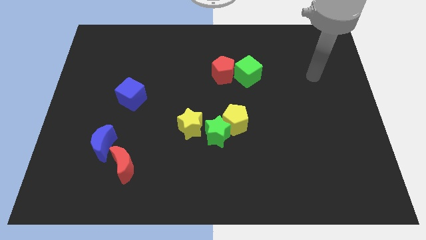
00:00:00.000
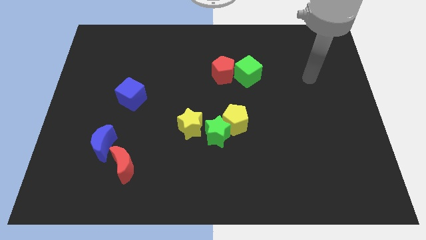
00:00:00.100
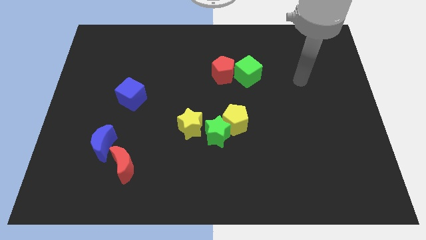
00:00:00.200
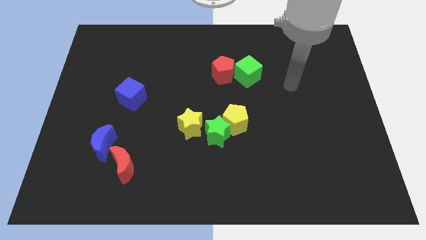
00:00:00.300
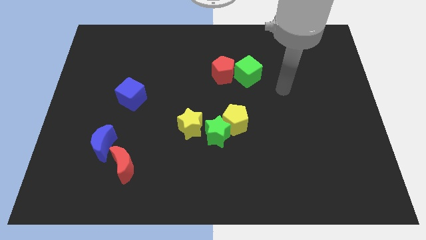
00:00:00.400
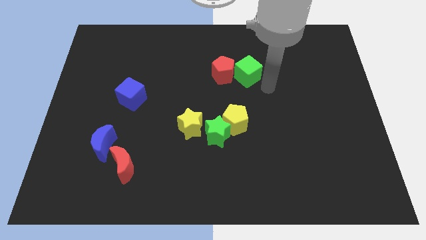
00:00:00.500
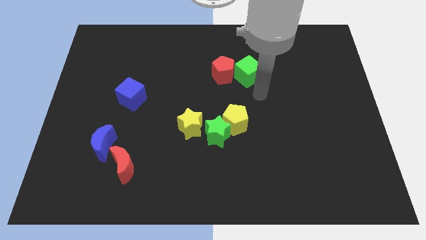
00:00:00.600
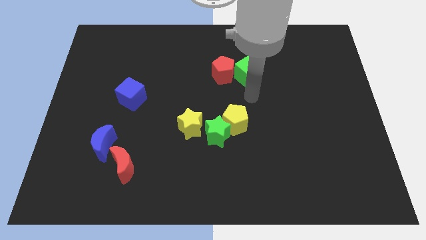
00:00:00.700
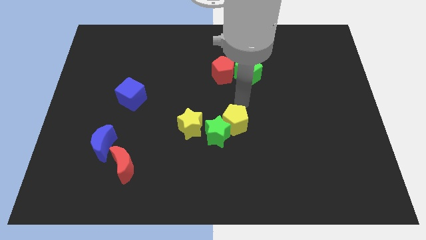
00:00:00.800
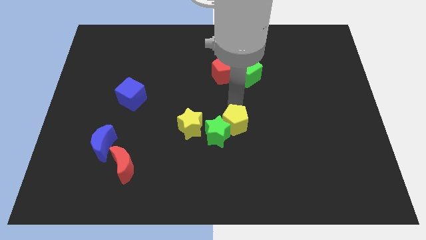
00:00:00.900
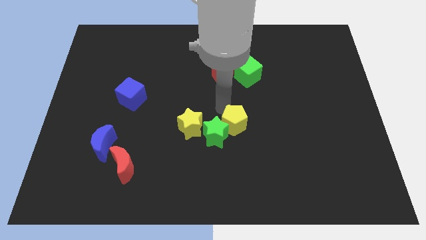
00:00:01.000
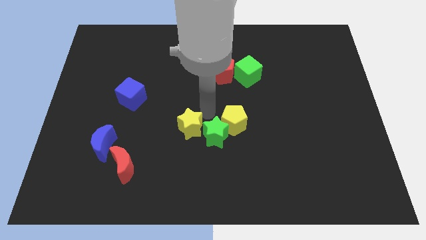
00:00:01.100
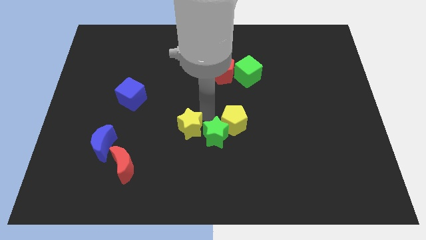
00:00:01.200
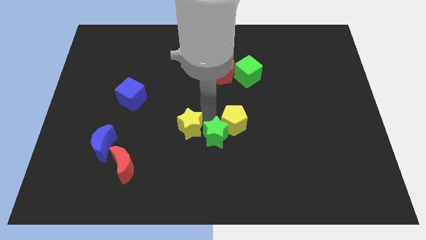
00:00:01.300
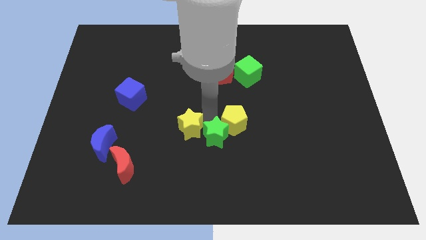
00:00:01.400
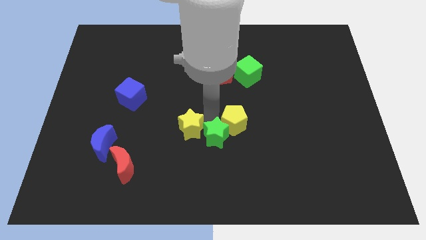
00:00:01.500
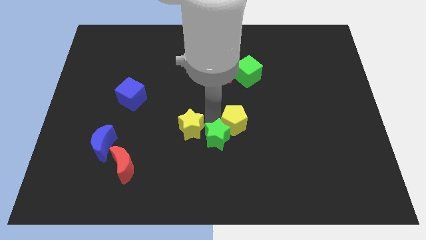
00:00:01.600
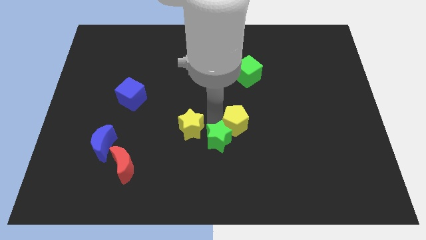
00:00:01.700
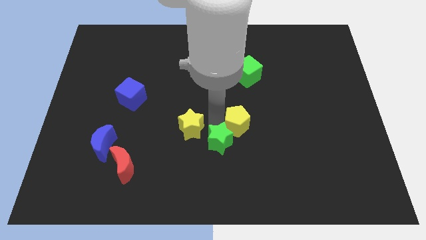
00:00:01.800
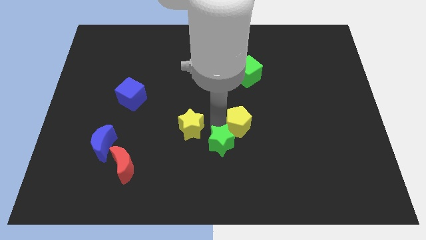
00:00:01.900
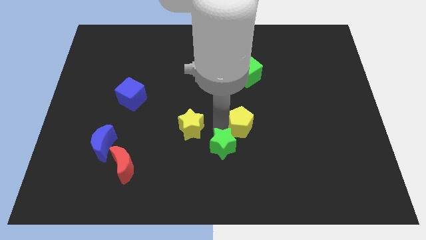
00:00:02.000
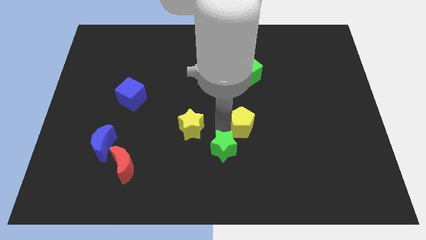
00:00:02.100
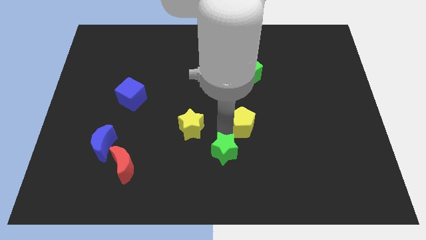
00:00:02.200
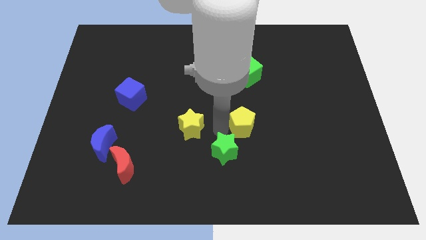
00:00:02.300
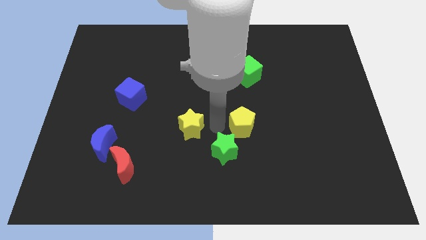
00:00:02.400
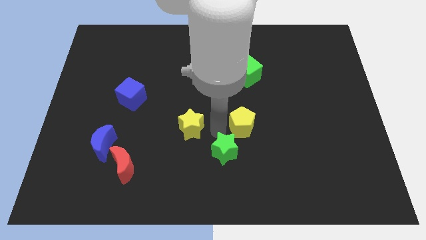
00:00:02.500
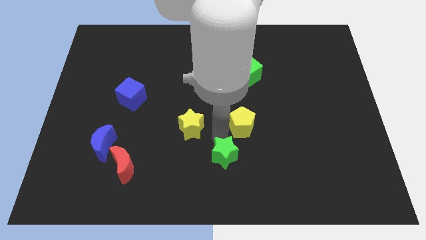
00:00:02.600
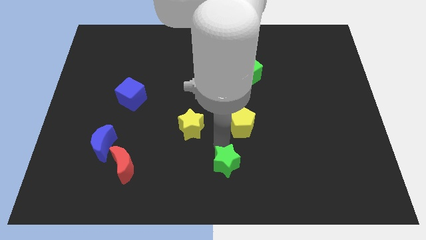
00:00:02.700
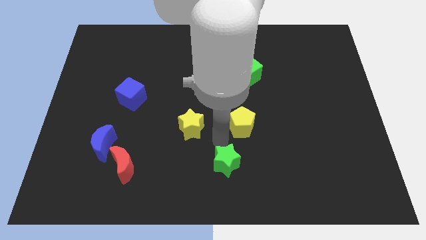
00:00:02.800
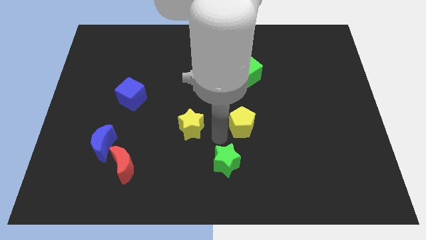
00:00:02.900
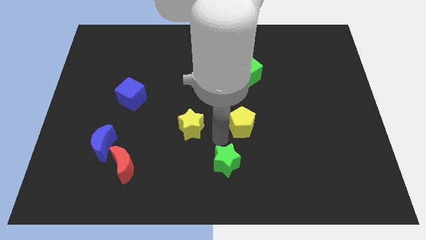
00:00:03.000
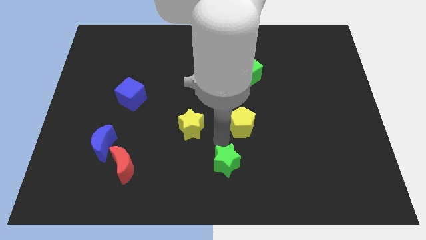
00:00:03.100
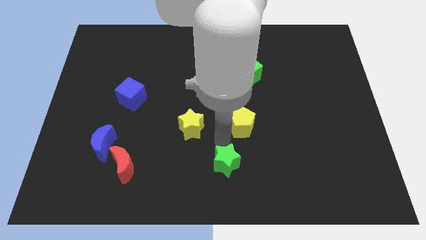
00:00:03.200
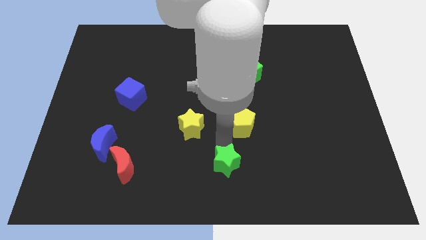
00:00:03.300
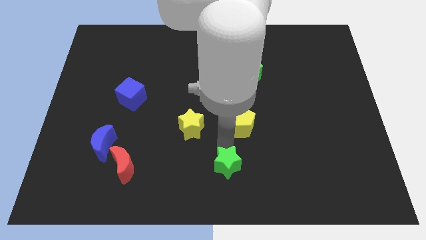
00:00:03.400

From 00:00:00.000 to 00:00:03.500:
pull the green star apart from the yellow pentagon and yellow star

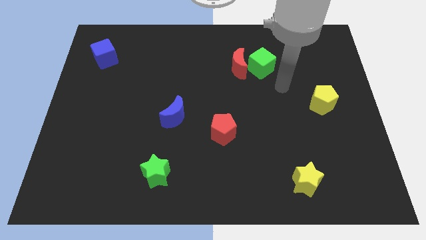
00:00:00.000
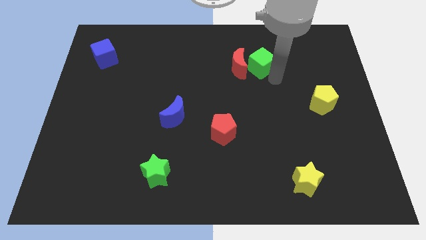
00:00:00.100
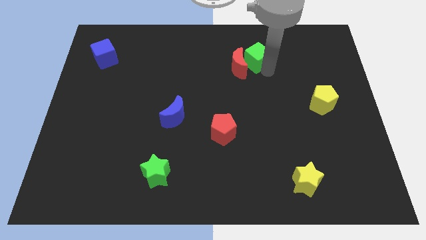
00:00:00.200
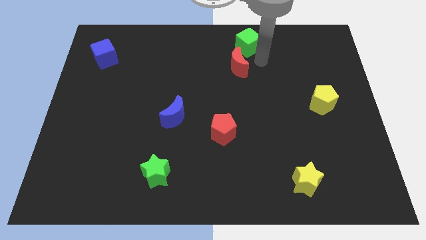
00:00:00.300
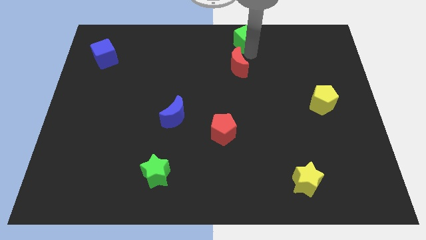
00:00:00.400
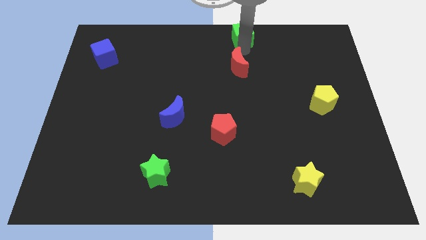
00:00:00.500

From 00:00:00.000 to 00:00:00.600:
move the red moon away from the green cube

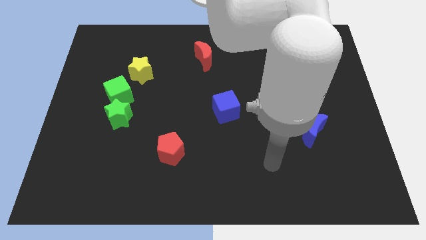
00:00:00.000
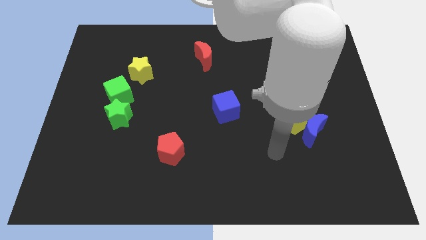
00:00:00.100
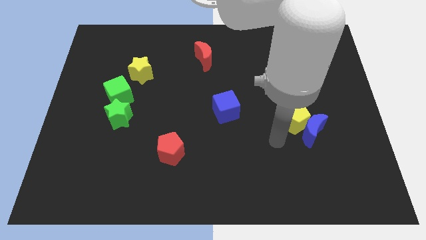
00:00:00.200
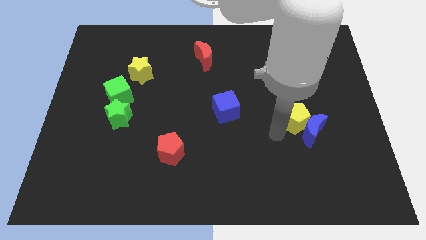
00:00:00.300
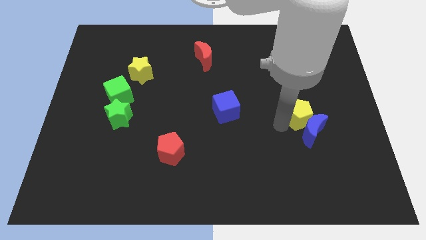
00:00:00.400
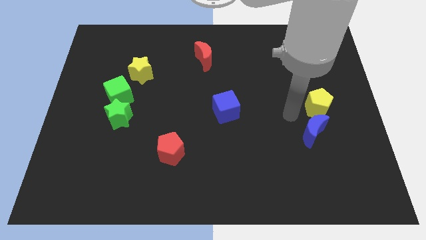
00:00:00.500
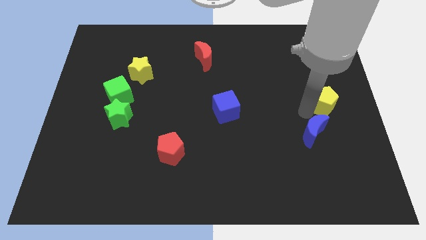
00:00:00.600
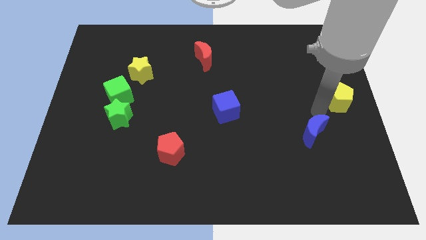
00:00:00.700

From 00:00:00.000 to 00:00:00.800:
move the blue moon away from the yellow pentagon

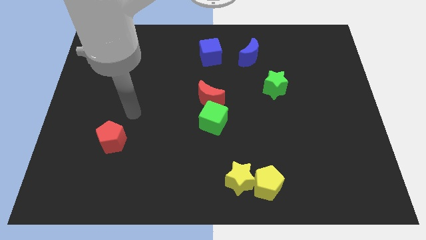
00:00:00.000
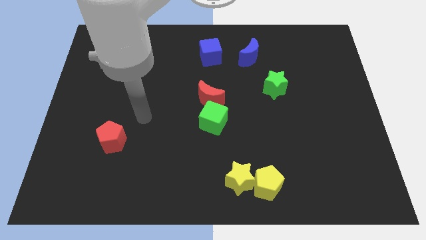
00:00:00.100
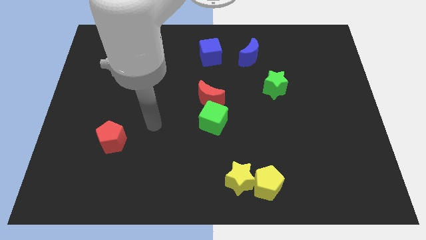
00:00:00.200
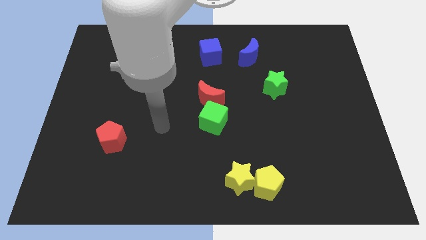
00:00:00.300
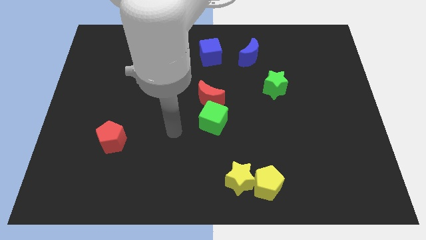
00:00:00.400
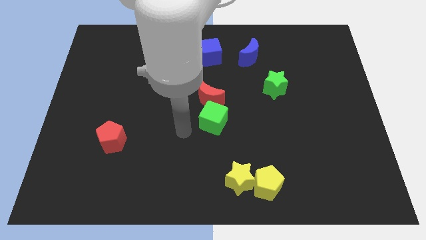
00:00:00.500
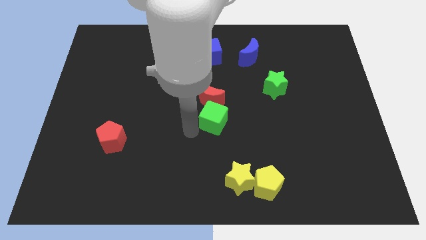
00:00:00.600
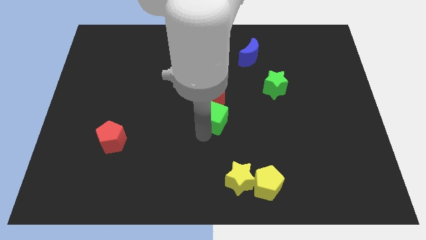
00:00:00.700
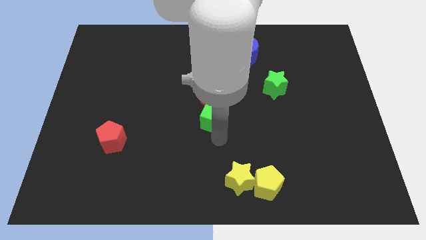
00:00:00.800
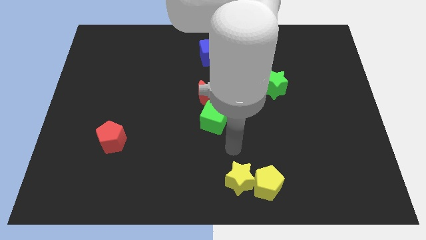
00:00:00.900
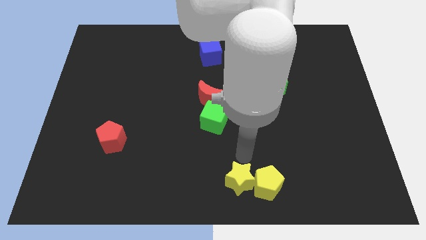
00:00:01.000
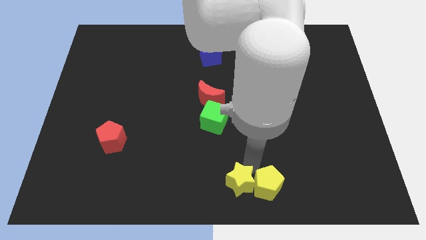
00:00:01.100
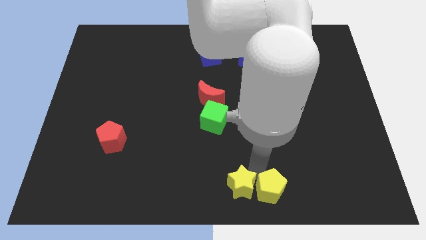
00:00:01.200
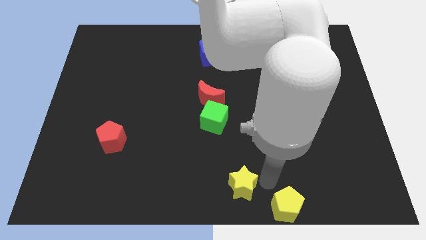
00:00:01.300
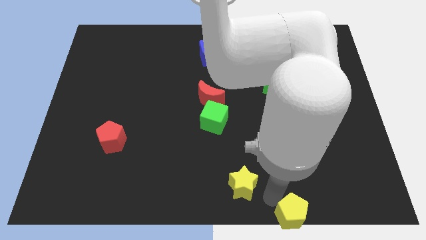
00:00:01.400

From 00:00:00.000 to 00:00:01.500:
move the yellow star away from the yellow pentagon

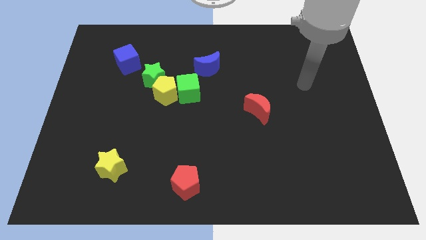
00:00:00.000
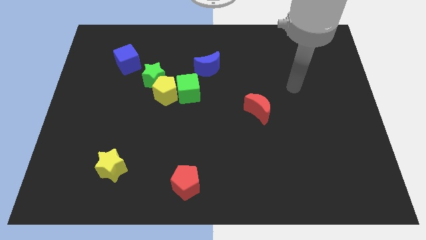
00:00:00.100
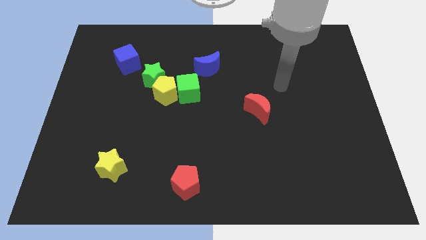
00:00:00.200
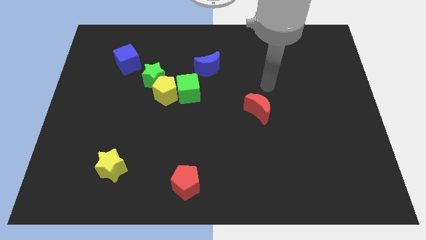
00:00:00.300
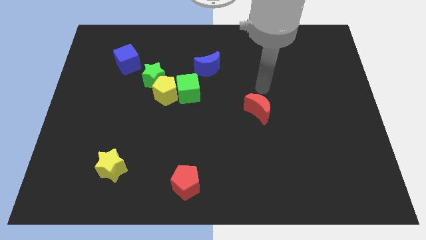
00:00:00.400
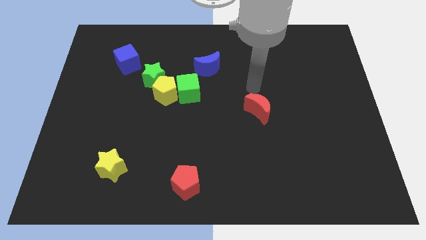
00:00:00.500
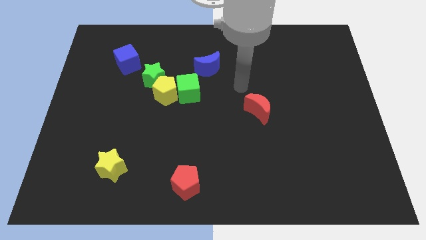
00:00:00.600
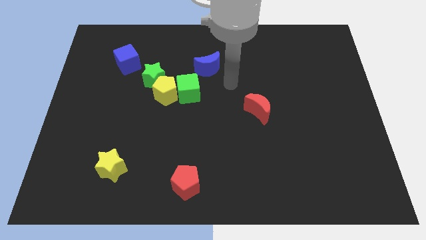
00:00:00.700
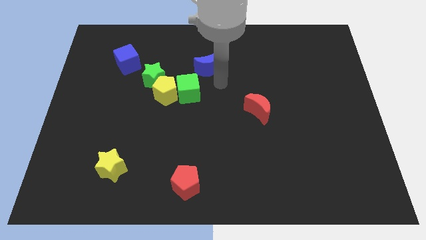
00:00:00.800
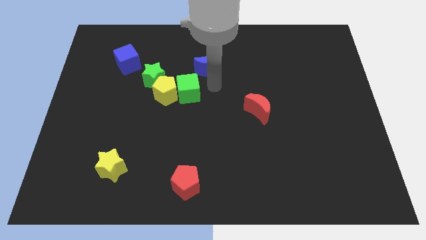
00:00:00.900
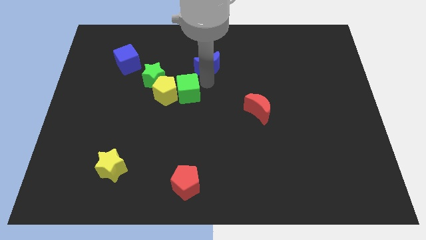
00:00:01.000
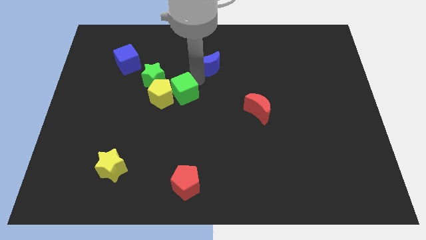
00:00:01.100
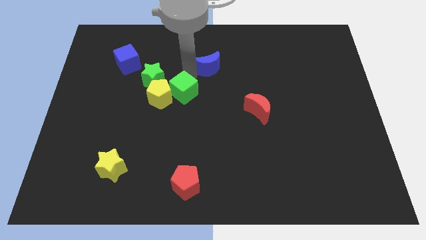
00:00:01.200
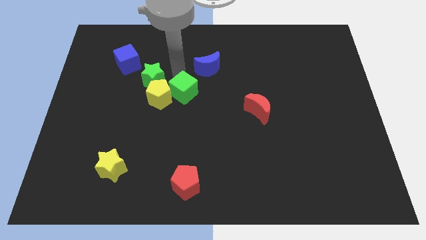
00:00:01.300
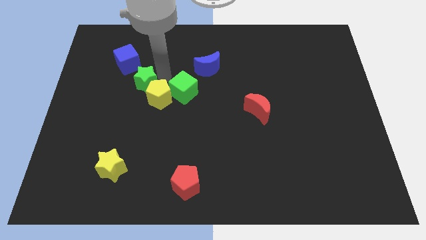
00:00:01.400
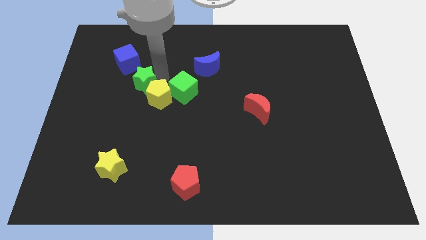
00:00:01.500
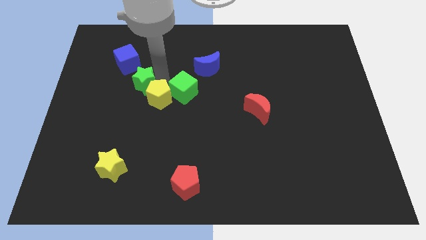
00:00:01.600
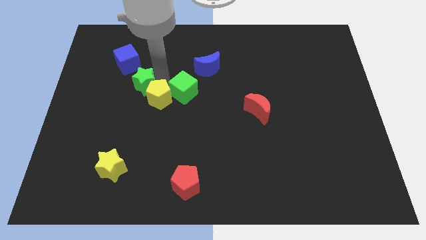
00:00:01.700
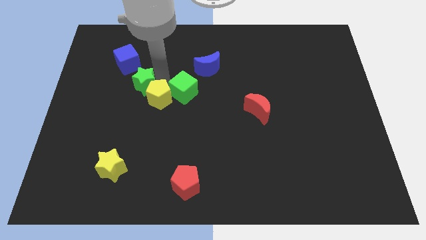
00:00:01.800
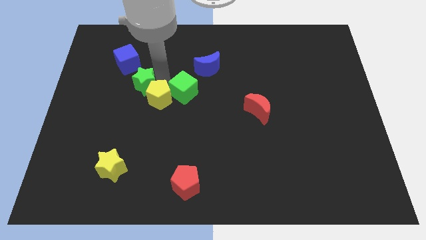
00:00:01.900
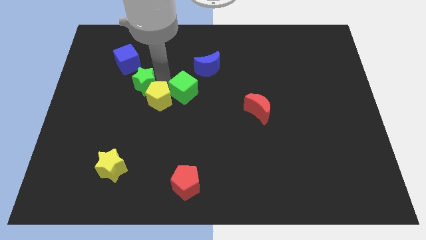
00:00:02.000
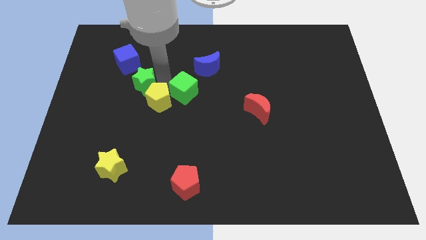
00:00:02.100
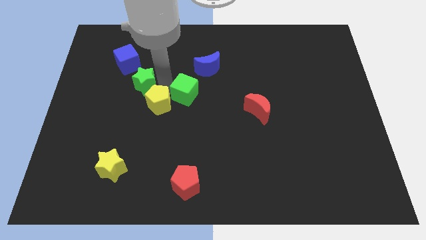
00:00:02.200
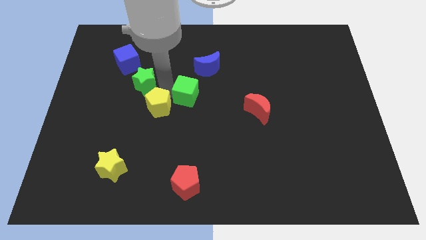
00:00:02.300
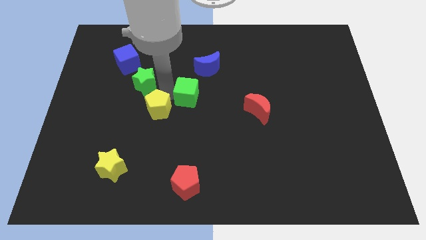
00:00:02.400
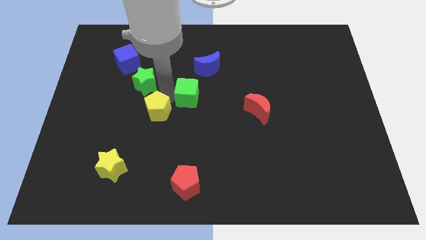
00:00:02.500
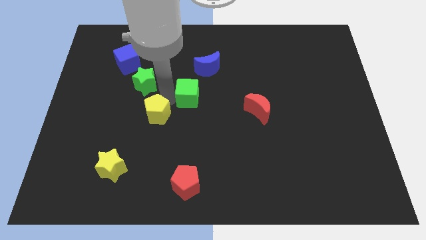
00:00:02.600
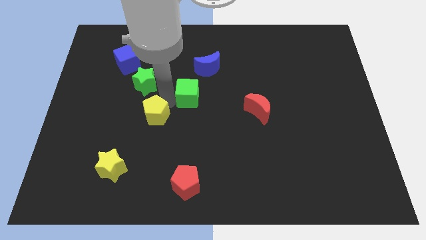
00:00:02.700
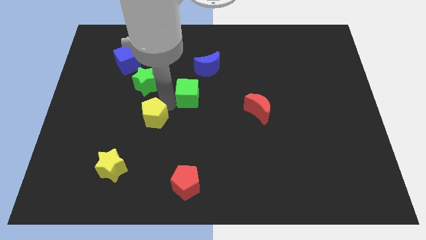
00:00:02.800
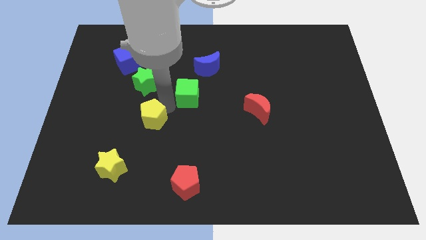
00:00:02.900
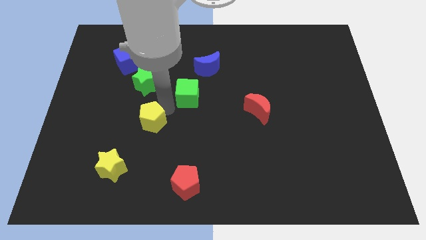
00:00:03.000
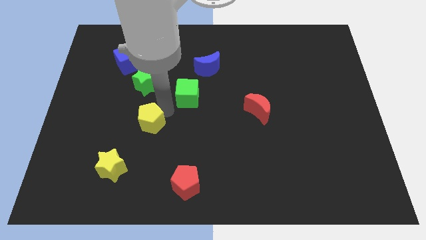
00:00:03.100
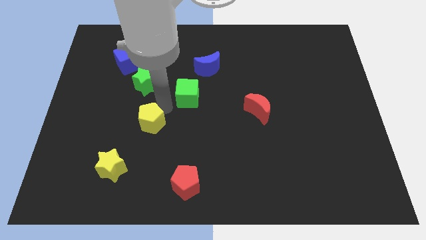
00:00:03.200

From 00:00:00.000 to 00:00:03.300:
move the yellow pentagon away from the green cube and green star
